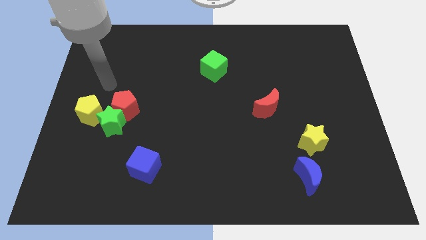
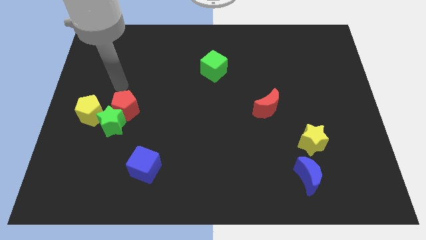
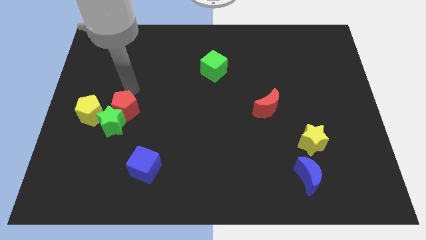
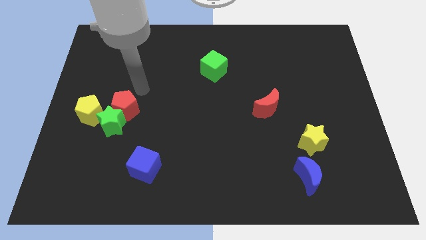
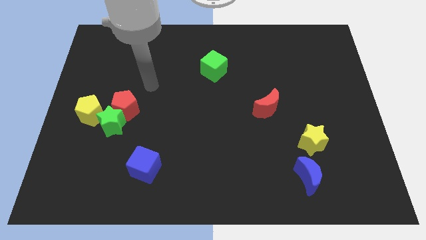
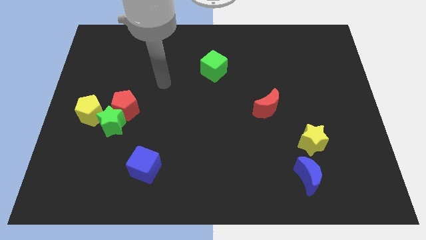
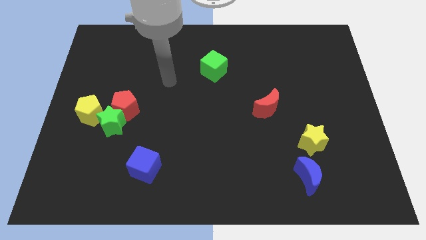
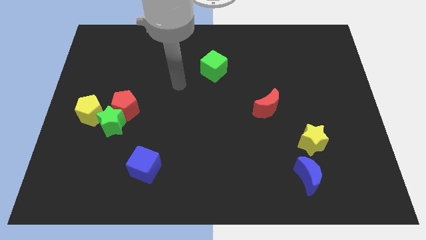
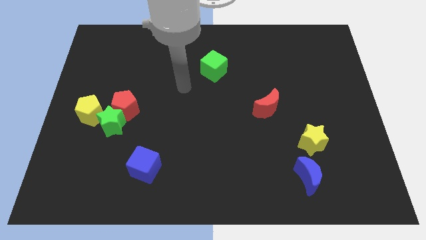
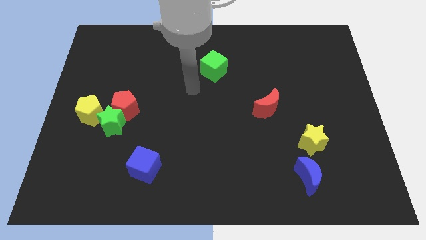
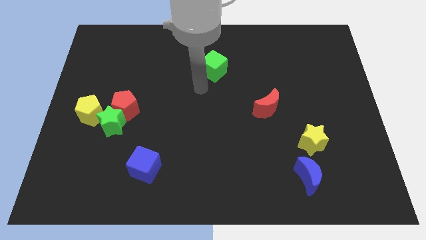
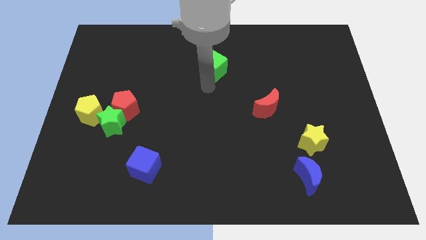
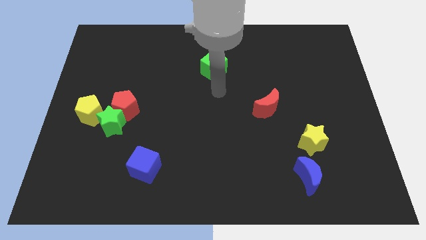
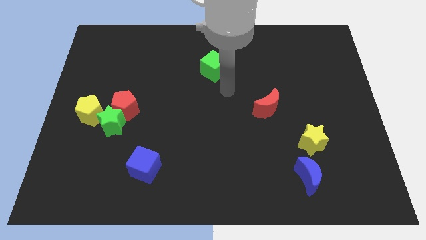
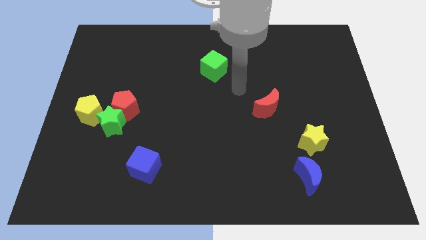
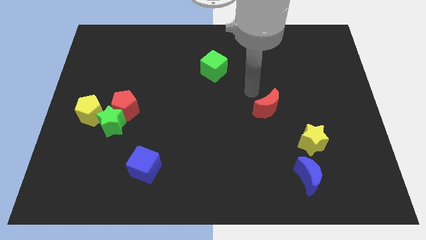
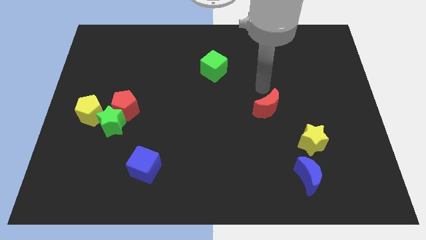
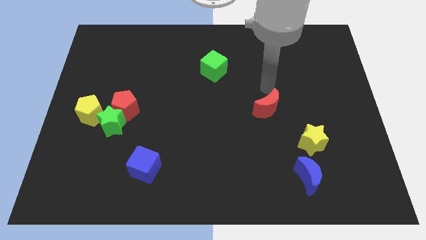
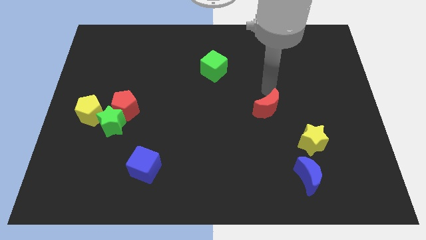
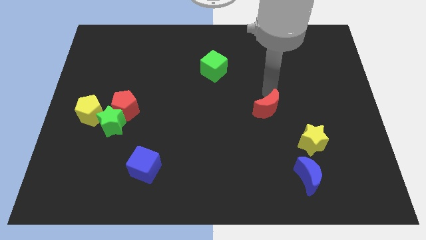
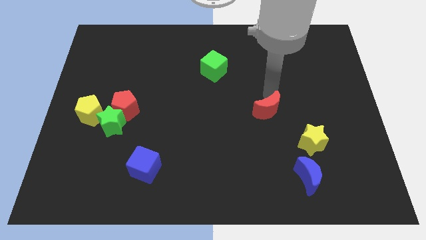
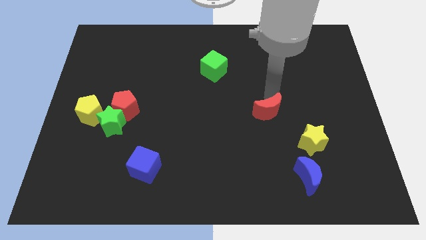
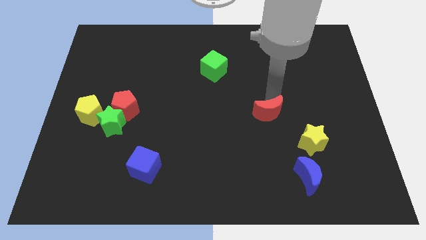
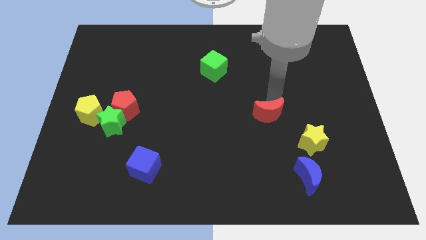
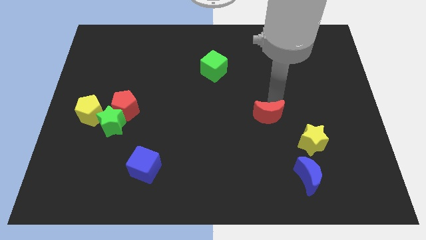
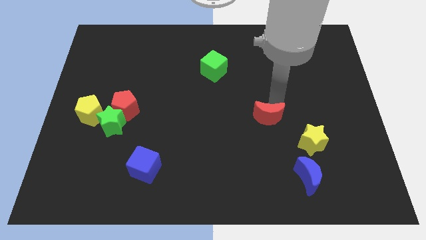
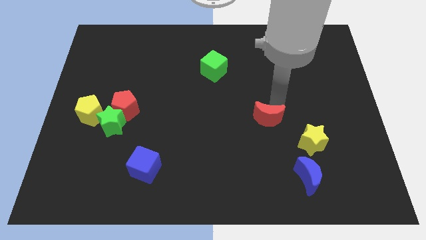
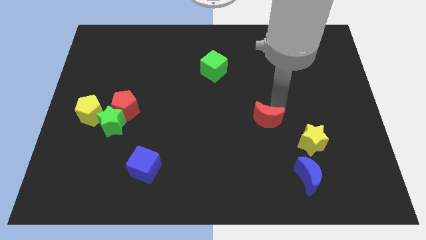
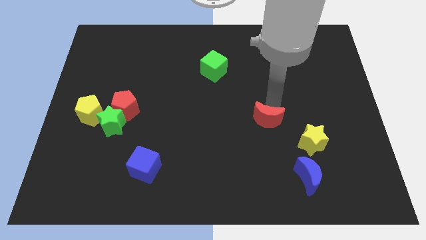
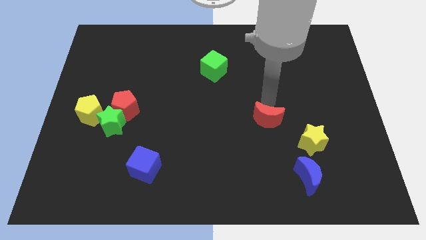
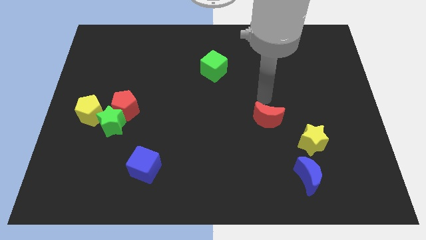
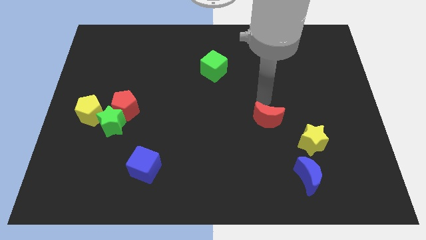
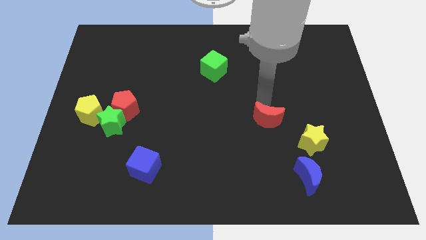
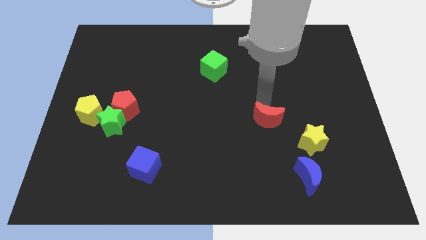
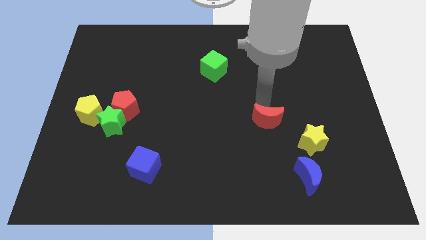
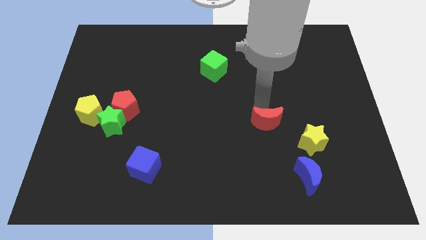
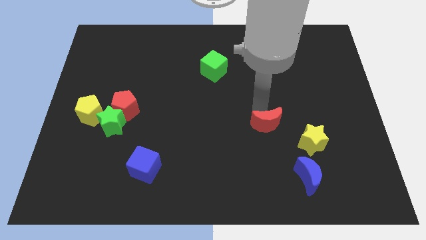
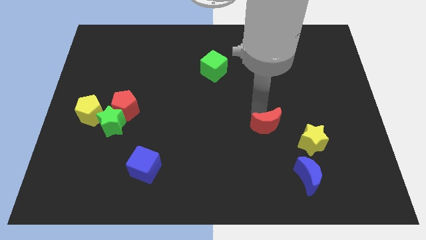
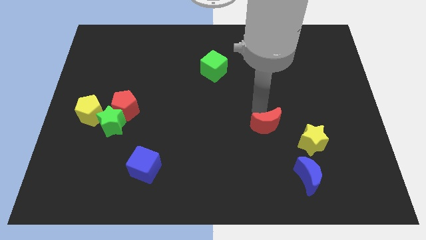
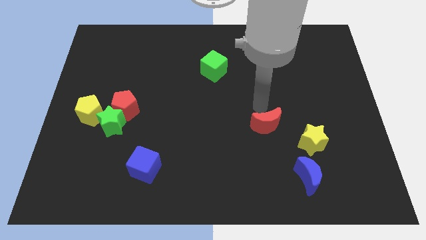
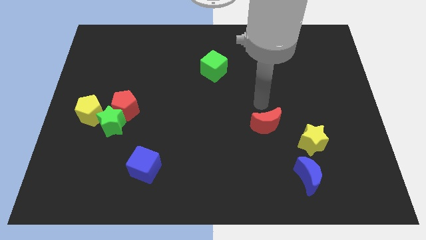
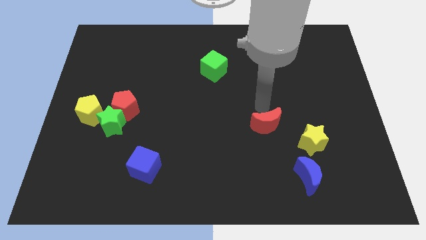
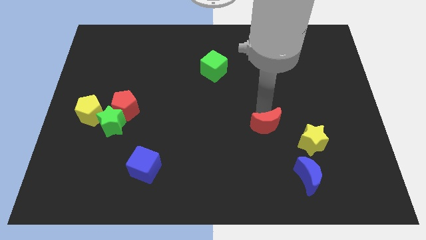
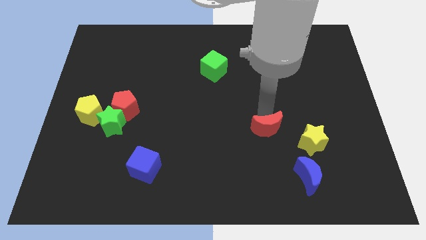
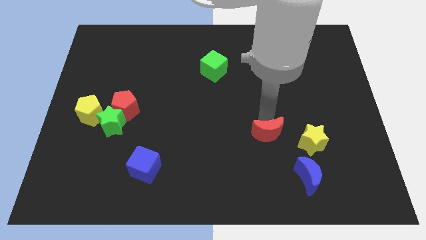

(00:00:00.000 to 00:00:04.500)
slide the red moon down a little

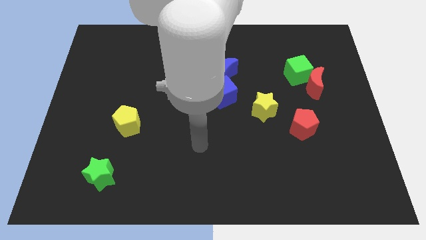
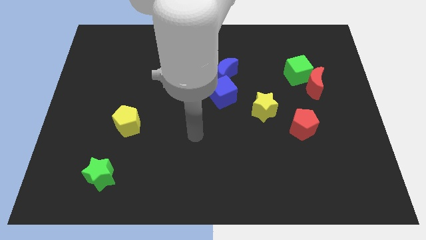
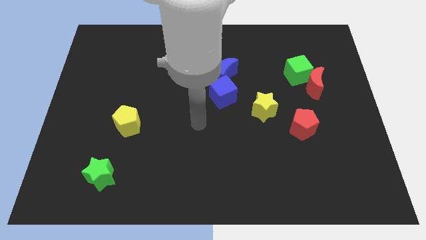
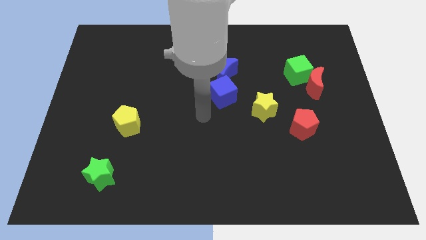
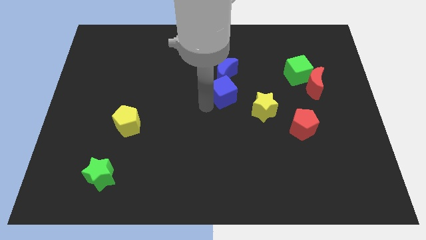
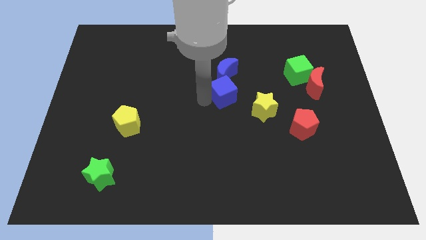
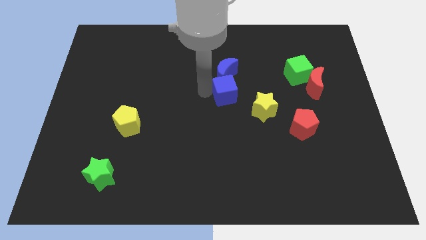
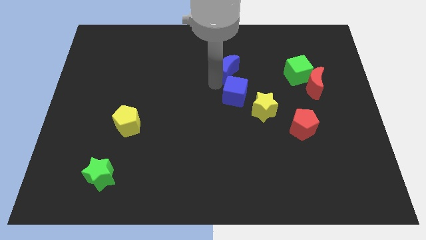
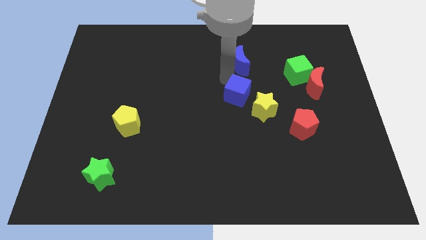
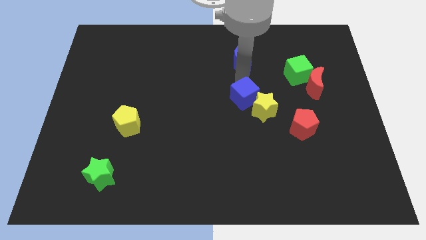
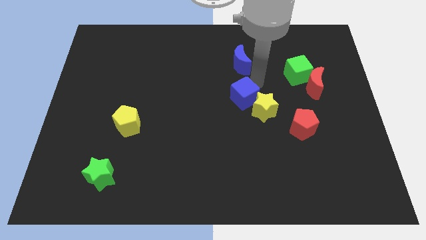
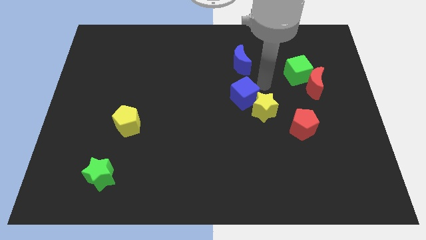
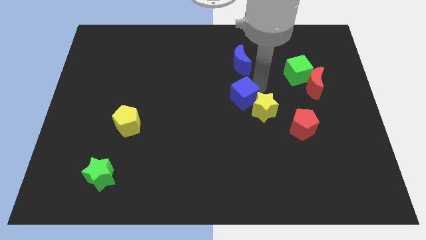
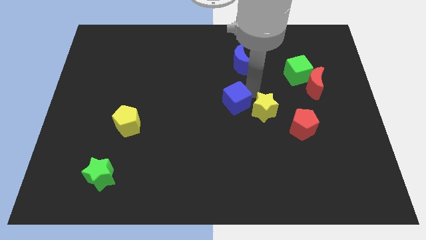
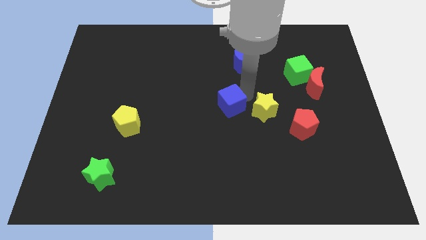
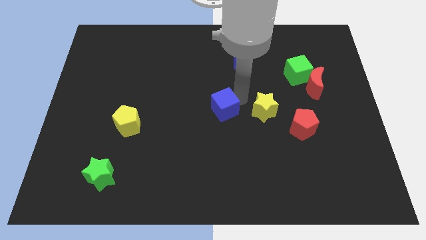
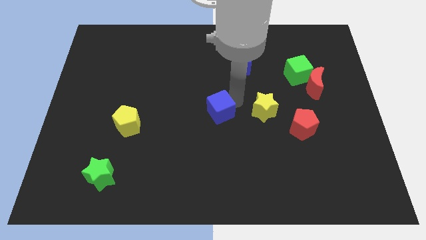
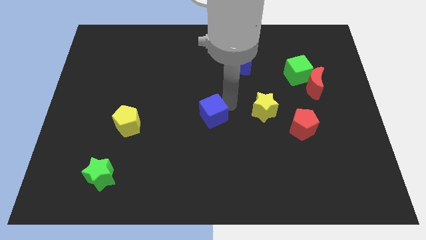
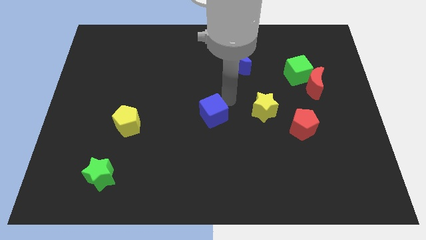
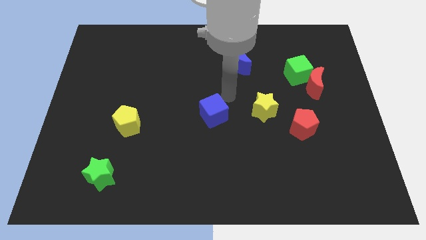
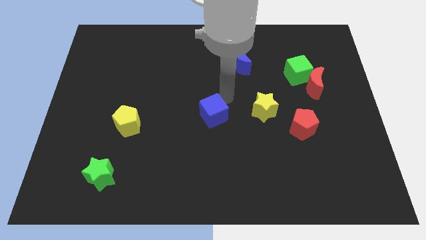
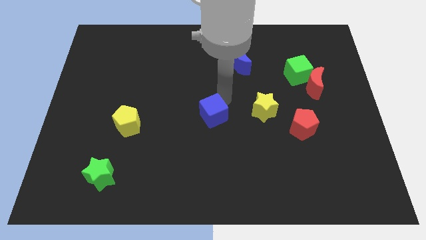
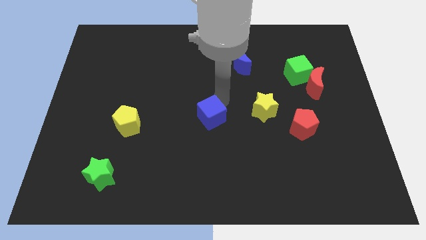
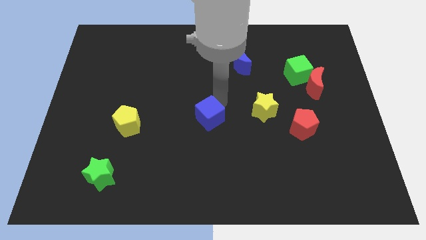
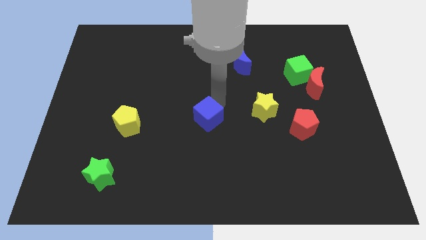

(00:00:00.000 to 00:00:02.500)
move the blue cube diagonally downwards and left a little bit

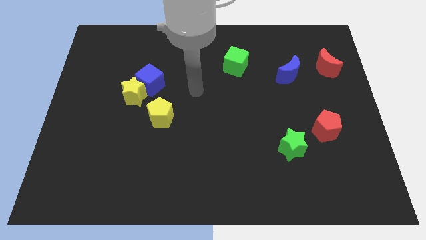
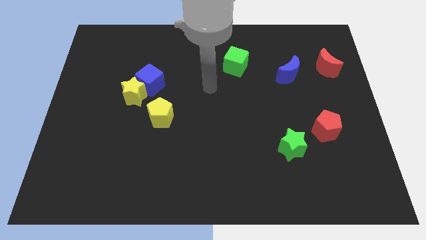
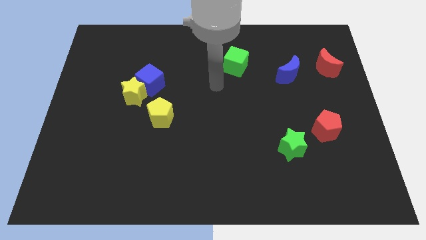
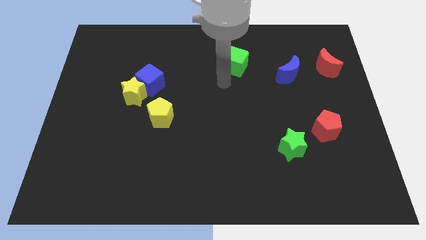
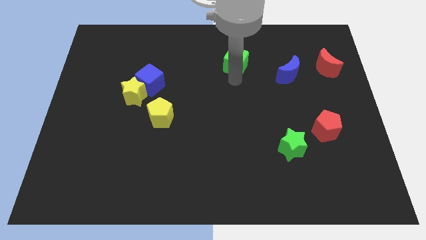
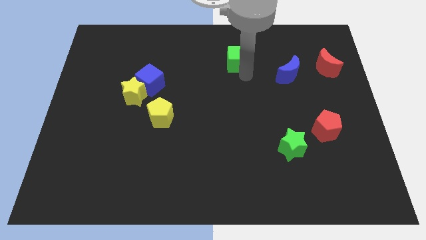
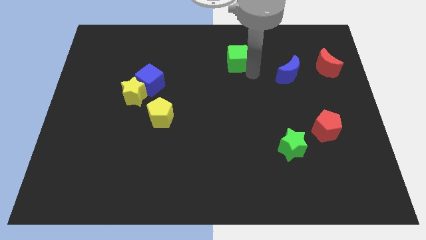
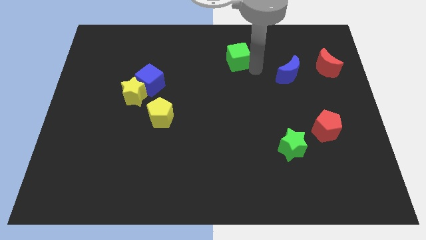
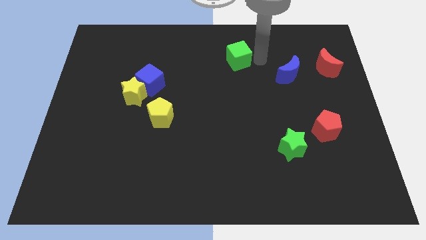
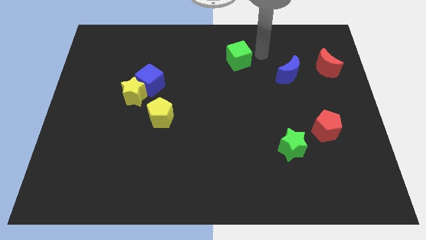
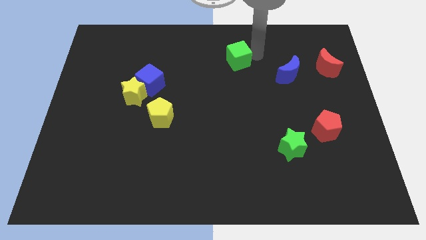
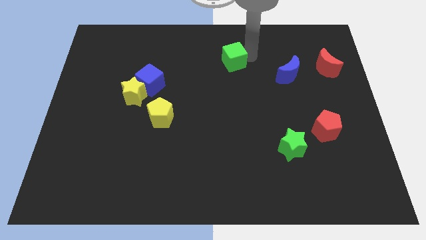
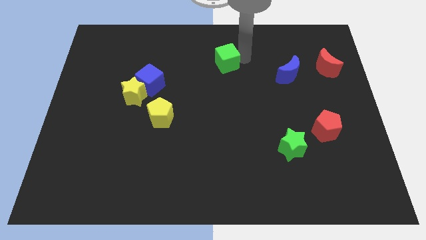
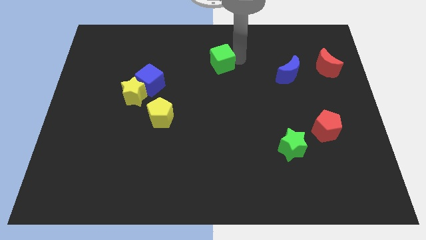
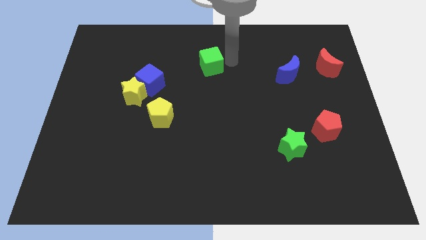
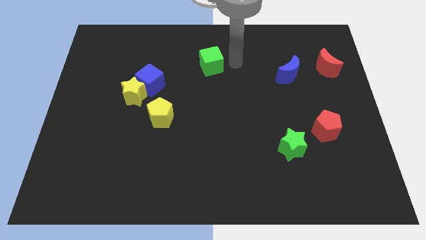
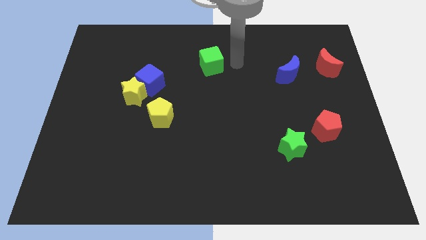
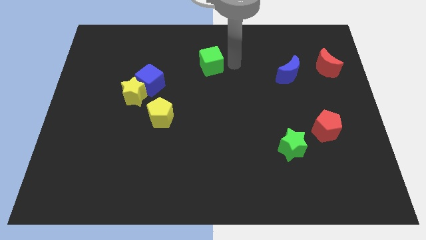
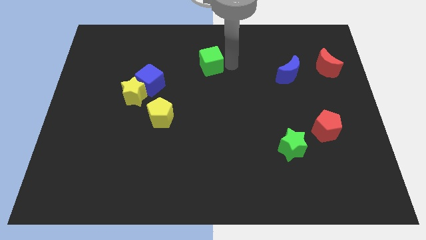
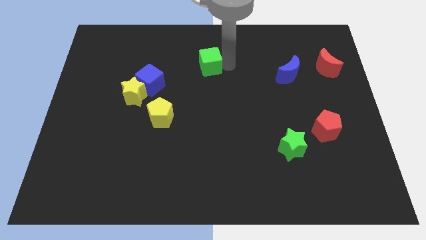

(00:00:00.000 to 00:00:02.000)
slide the green cube a bit to the left
